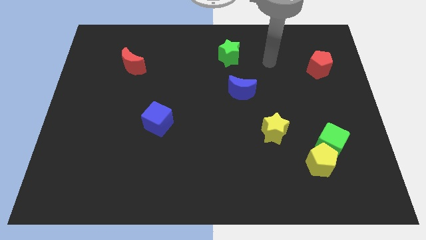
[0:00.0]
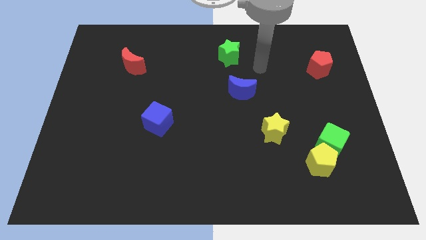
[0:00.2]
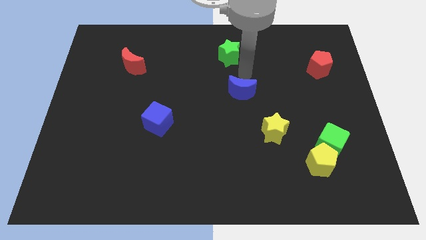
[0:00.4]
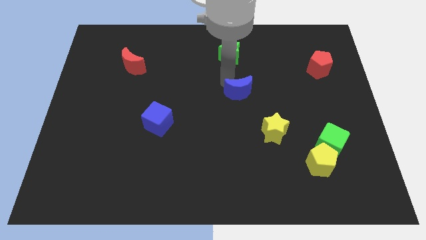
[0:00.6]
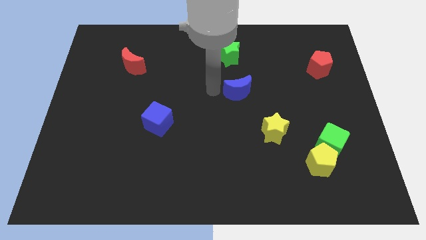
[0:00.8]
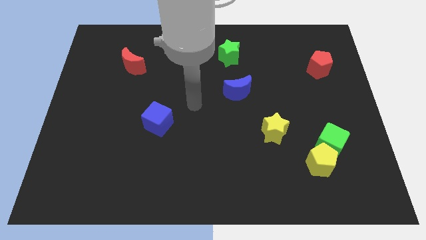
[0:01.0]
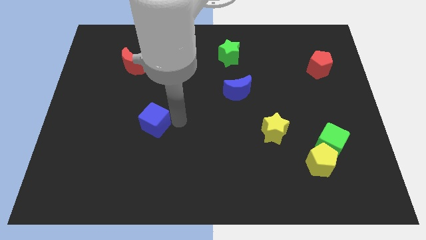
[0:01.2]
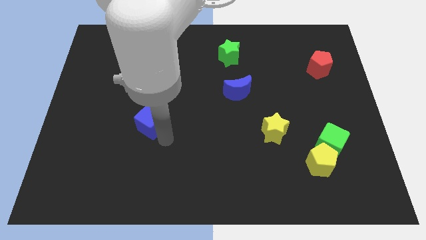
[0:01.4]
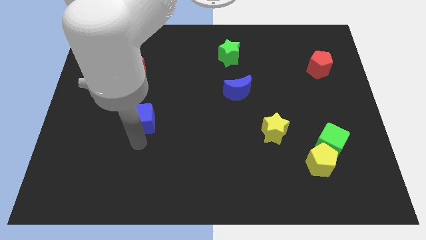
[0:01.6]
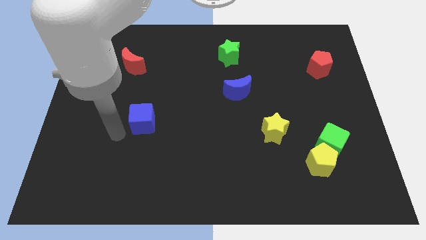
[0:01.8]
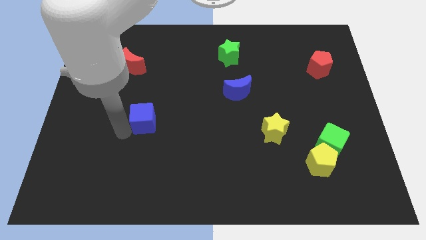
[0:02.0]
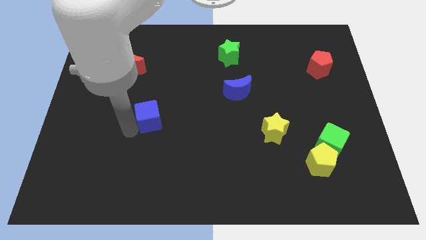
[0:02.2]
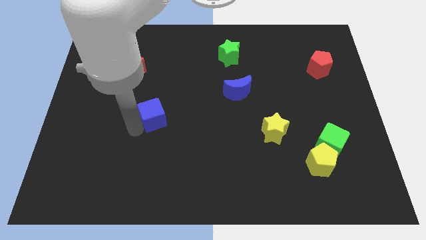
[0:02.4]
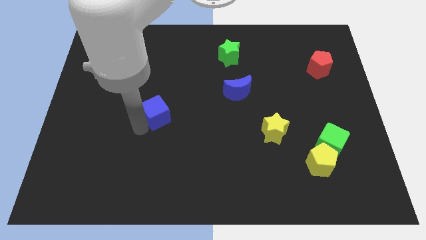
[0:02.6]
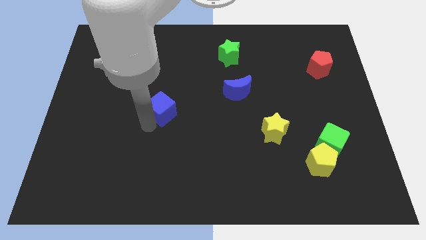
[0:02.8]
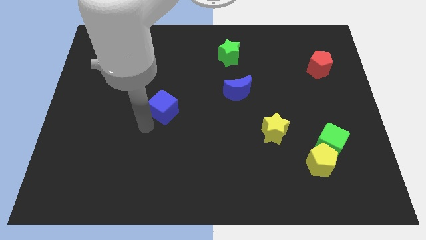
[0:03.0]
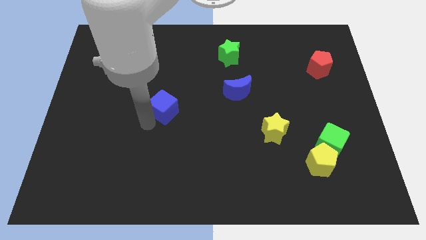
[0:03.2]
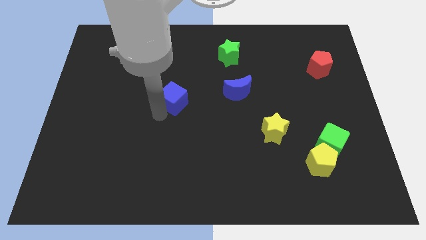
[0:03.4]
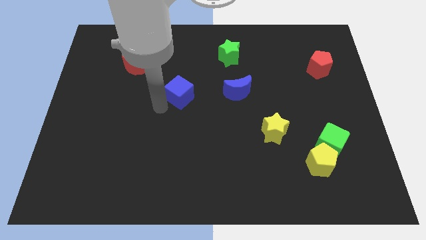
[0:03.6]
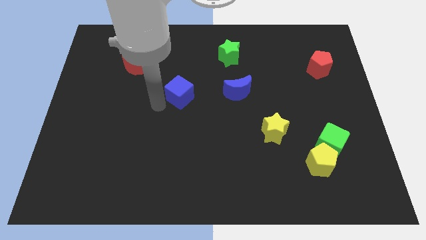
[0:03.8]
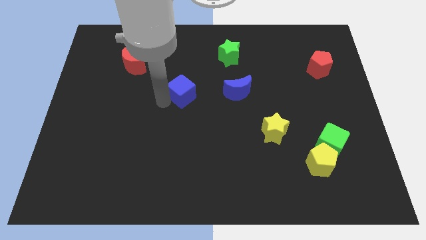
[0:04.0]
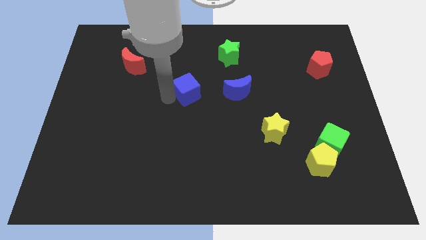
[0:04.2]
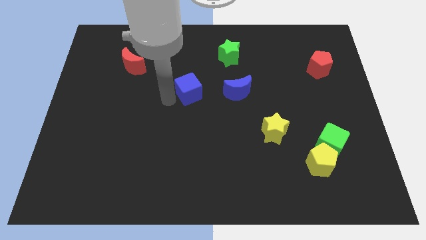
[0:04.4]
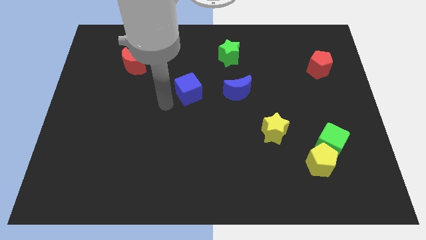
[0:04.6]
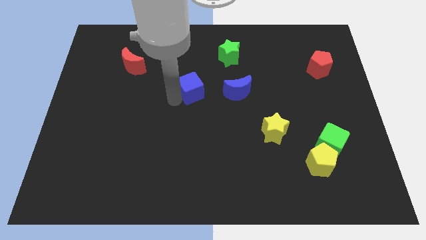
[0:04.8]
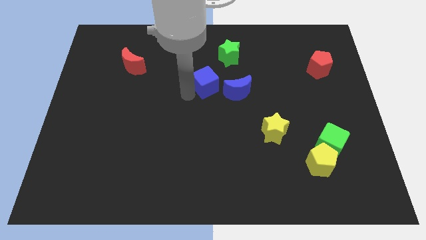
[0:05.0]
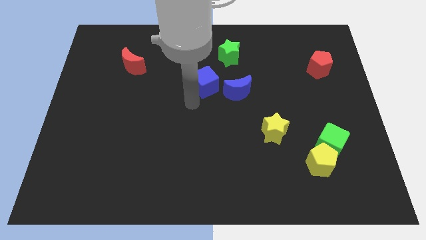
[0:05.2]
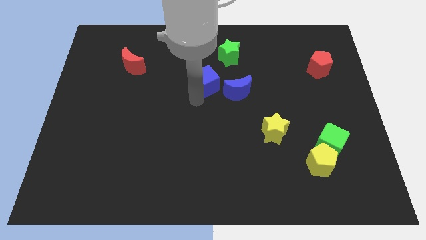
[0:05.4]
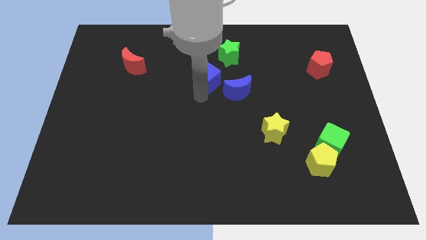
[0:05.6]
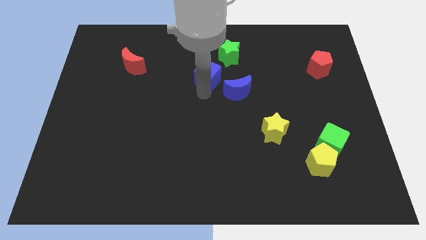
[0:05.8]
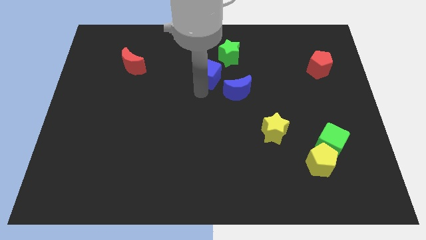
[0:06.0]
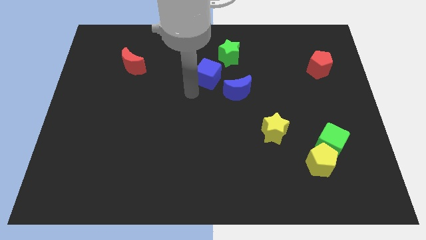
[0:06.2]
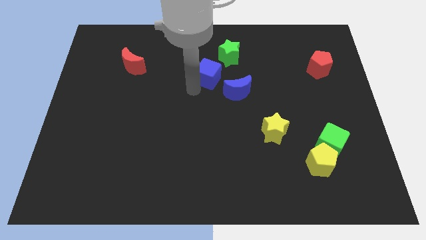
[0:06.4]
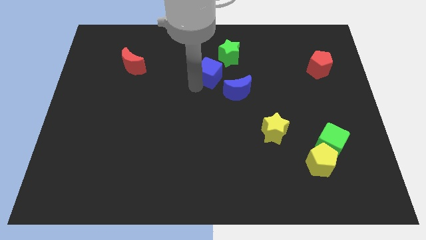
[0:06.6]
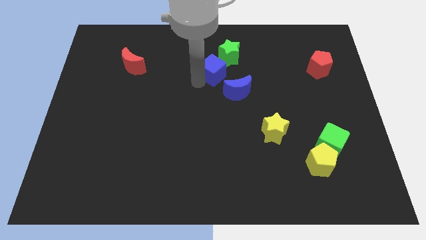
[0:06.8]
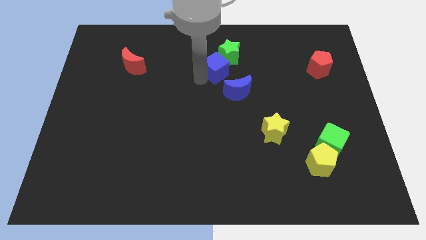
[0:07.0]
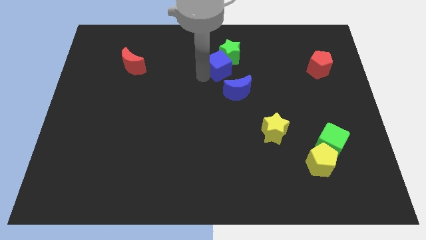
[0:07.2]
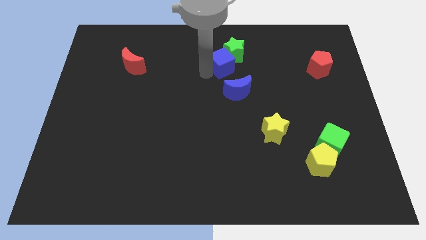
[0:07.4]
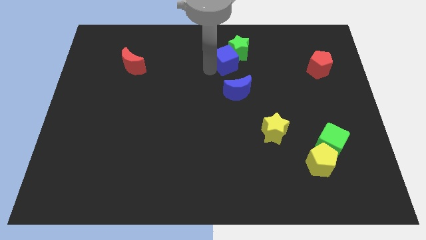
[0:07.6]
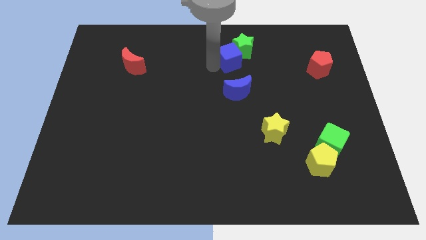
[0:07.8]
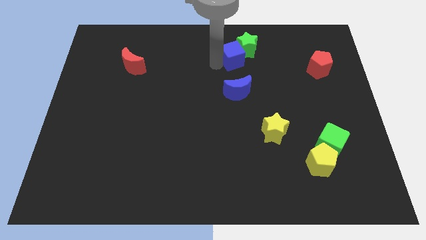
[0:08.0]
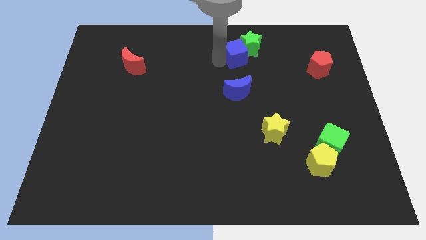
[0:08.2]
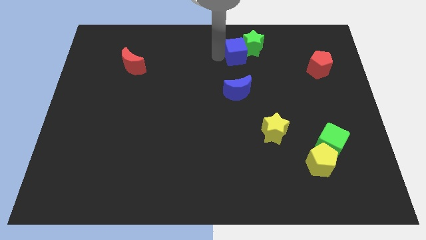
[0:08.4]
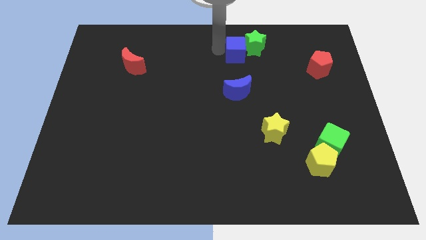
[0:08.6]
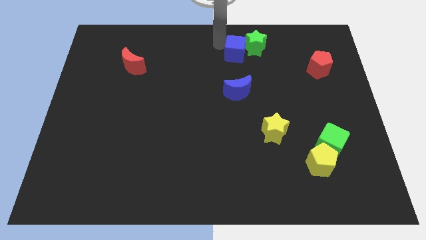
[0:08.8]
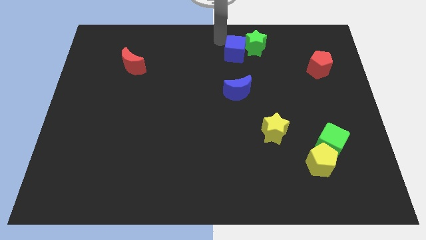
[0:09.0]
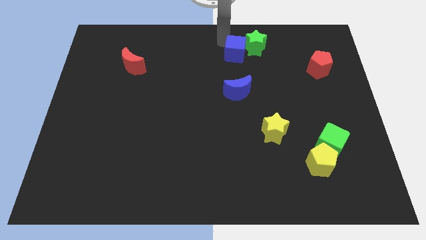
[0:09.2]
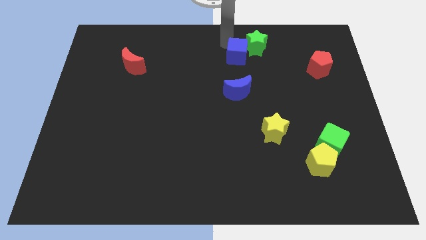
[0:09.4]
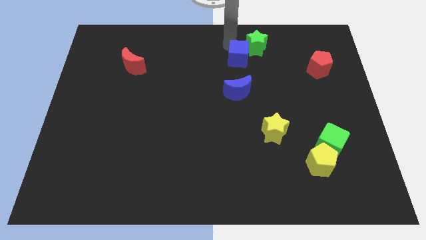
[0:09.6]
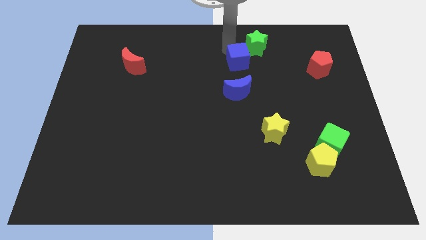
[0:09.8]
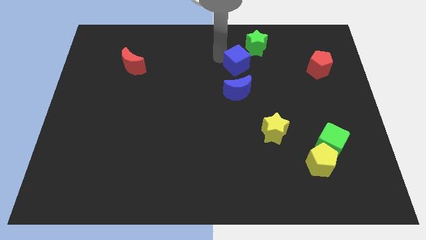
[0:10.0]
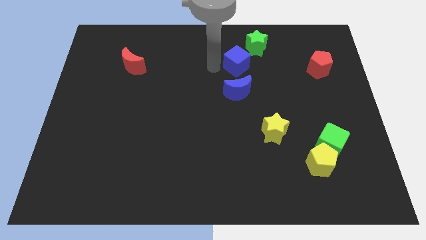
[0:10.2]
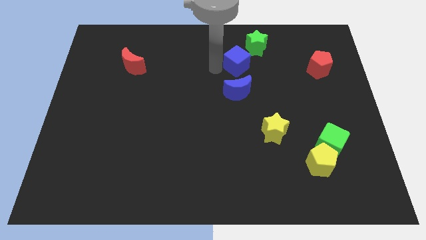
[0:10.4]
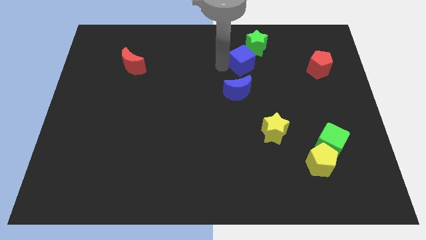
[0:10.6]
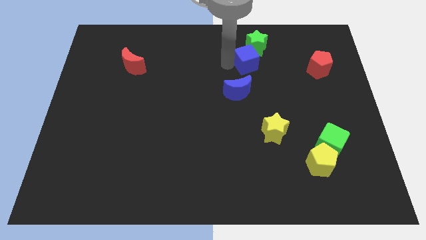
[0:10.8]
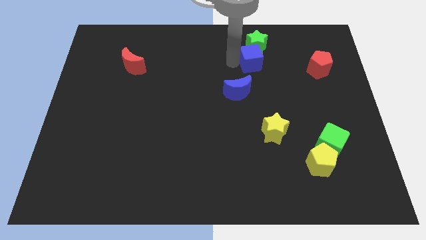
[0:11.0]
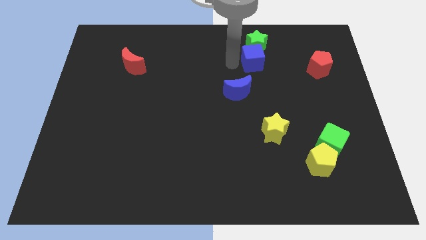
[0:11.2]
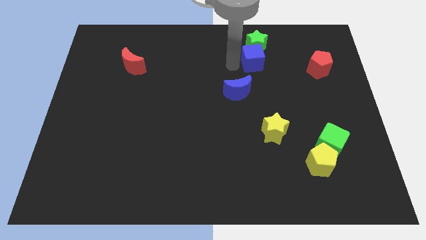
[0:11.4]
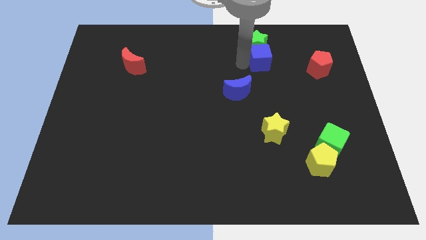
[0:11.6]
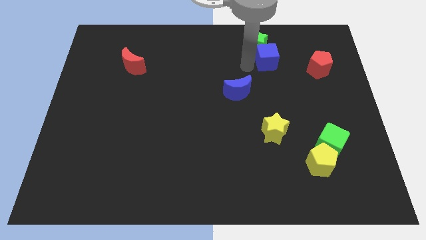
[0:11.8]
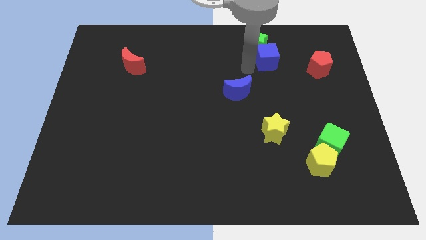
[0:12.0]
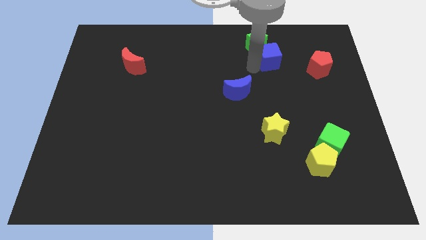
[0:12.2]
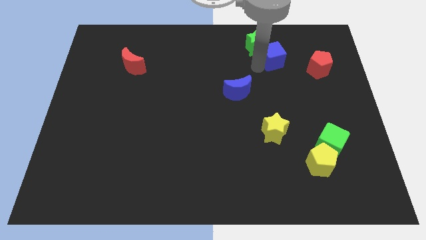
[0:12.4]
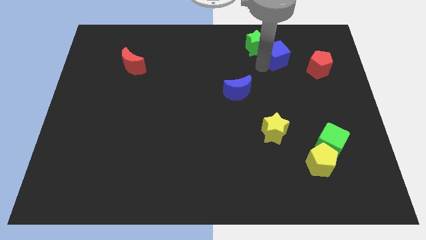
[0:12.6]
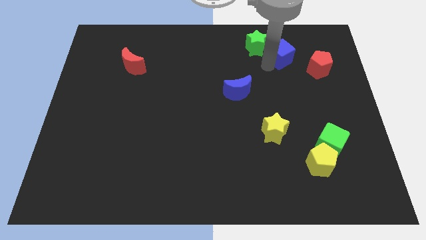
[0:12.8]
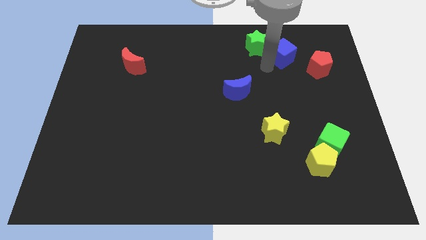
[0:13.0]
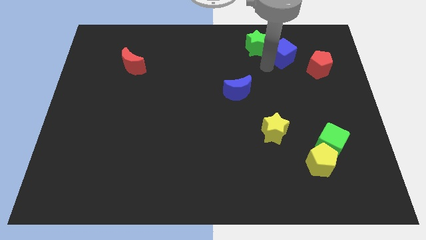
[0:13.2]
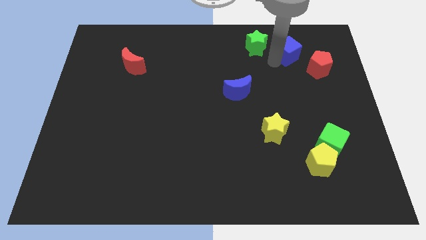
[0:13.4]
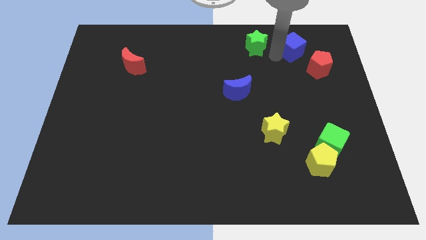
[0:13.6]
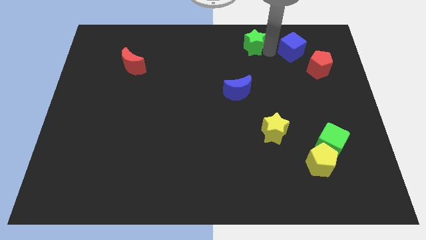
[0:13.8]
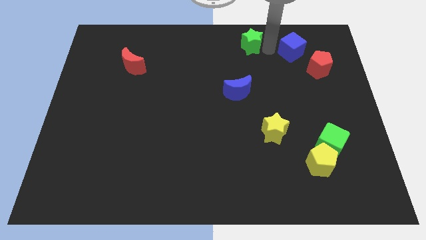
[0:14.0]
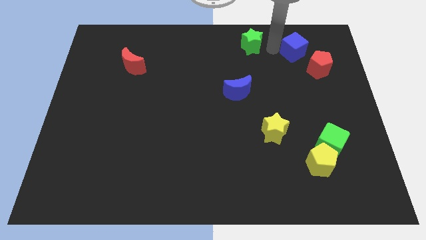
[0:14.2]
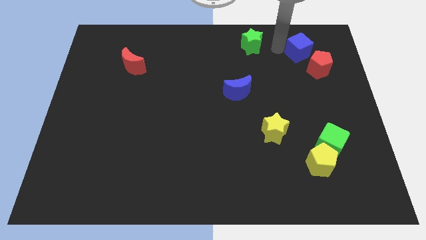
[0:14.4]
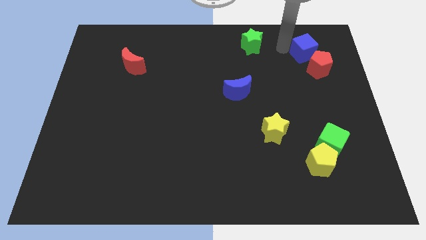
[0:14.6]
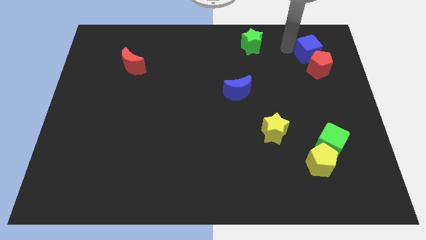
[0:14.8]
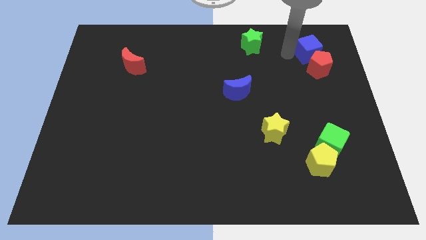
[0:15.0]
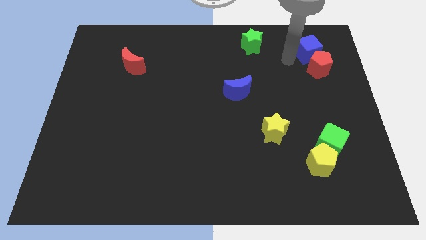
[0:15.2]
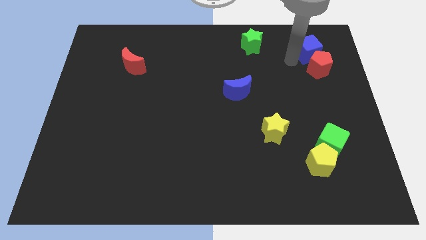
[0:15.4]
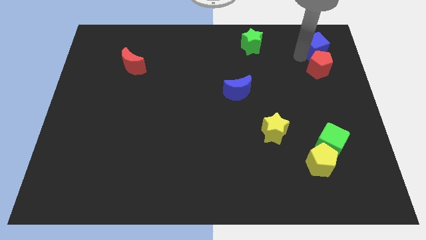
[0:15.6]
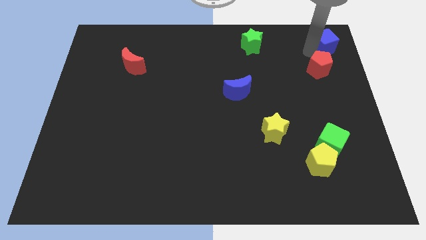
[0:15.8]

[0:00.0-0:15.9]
put the blue cube to the top right corner

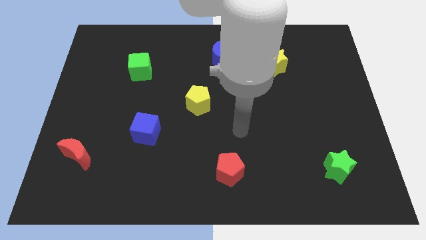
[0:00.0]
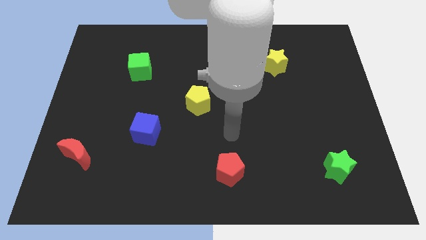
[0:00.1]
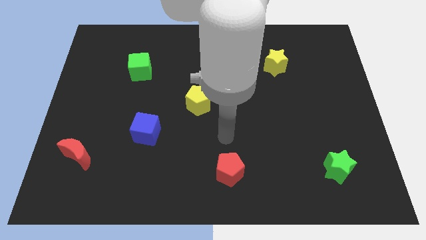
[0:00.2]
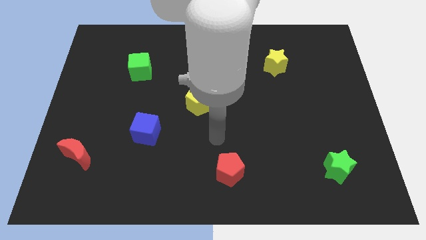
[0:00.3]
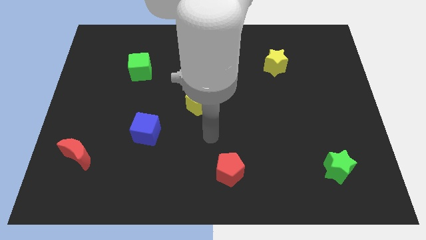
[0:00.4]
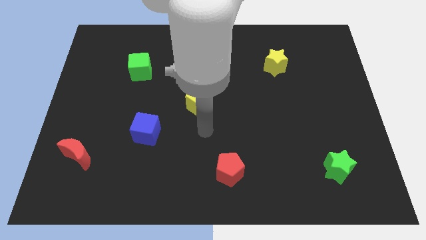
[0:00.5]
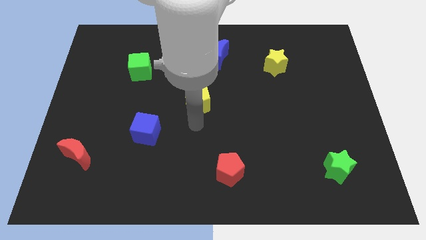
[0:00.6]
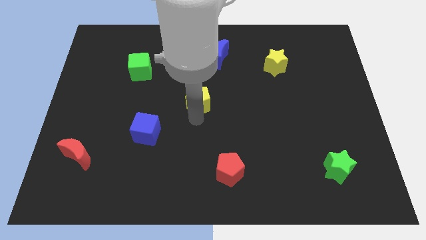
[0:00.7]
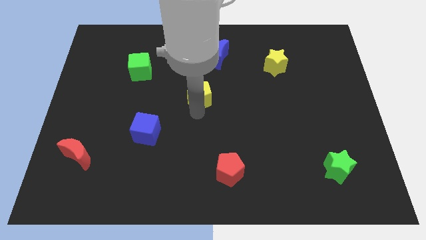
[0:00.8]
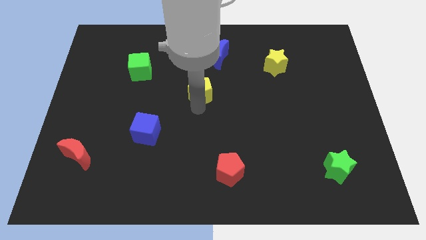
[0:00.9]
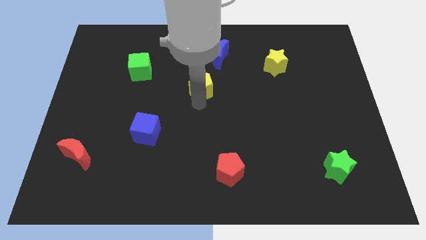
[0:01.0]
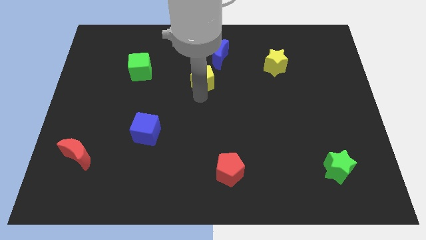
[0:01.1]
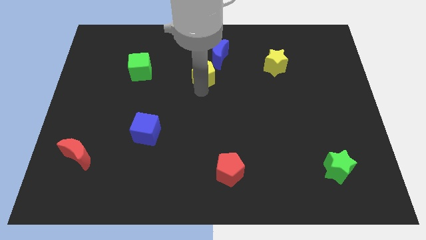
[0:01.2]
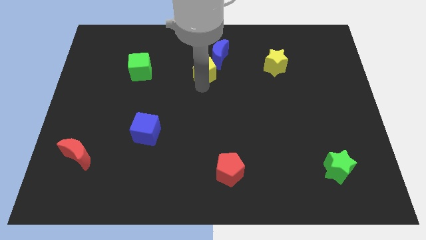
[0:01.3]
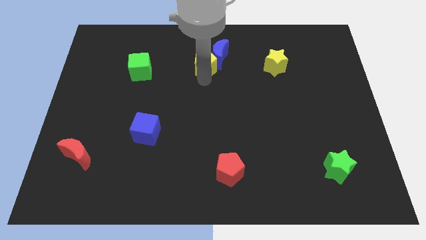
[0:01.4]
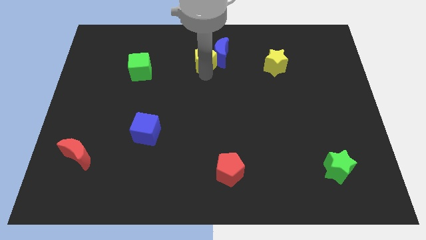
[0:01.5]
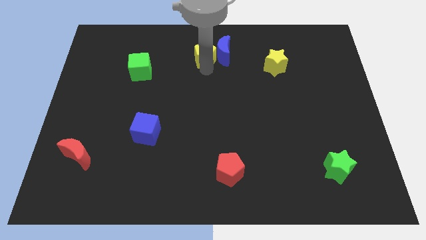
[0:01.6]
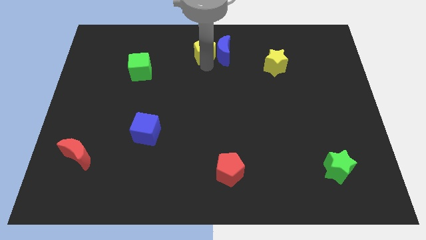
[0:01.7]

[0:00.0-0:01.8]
put the yellow pentagon to the towards your base
